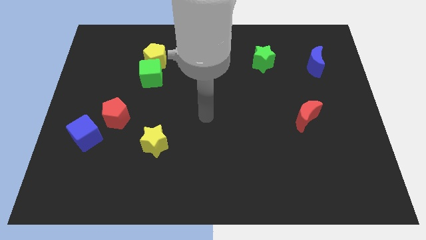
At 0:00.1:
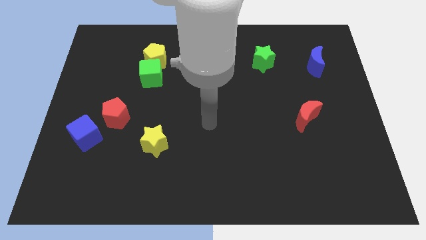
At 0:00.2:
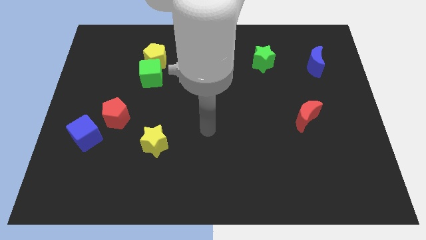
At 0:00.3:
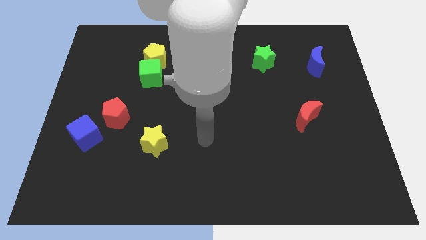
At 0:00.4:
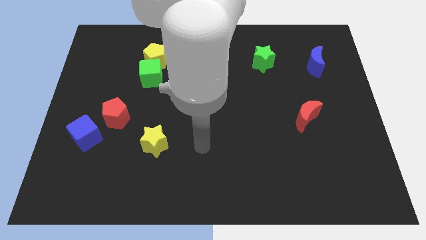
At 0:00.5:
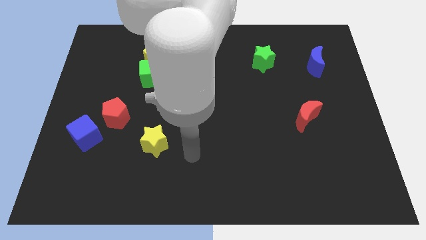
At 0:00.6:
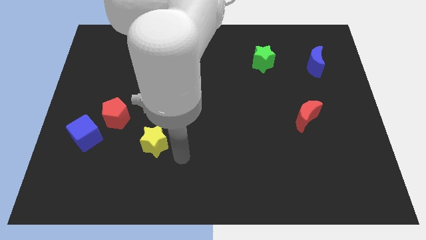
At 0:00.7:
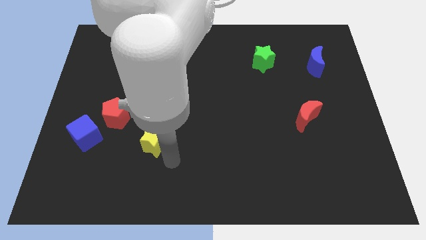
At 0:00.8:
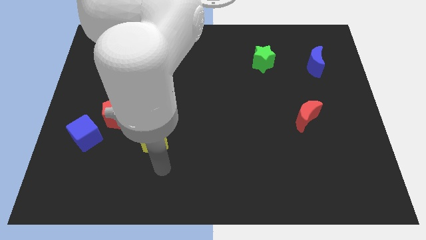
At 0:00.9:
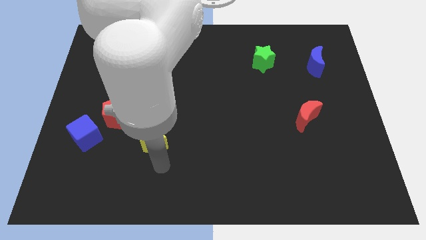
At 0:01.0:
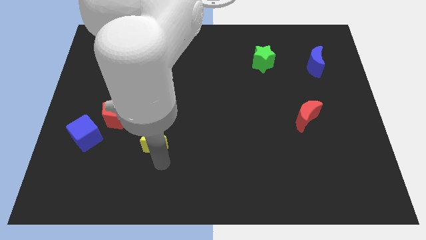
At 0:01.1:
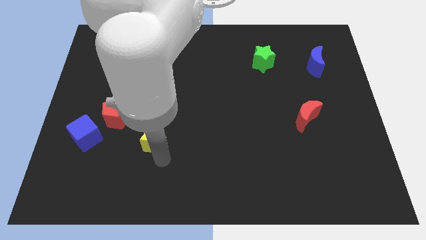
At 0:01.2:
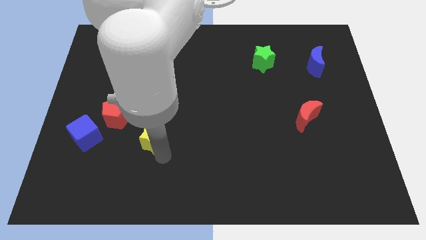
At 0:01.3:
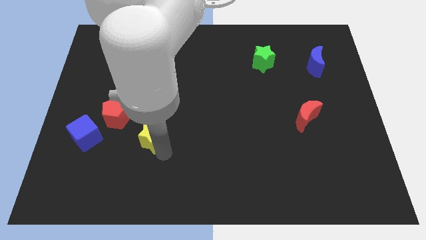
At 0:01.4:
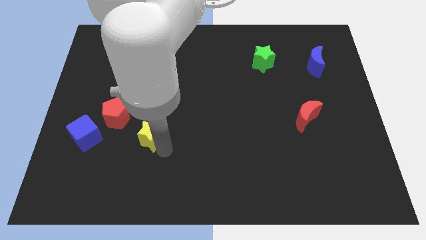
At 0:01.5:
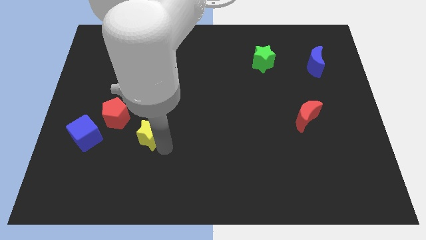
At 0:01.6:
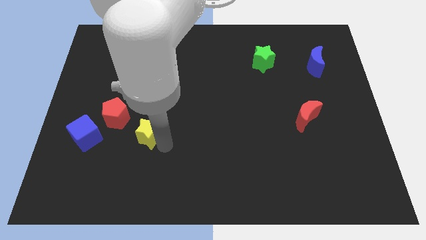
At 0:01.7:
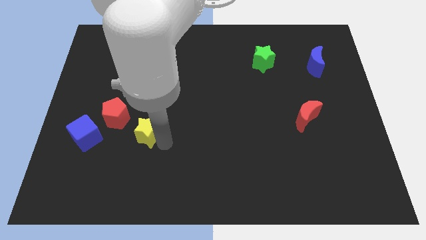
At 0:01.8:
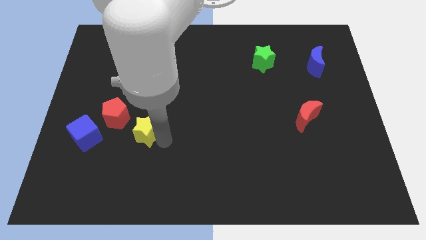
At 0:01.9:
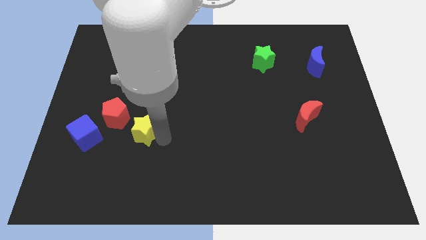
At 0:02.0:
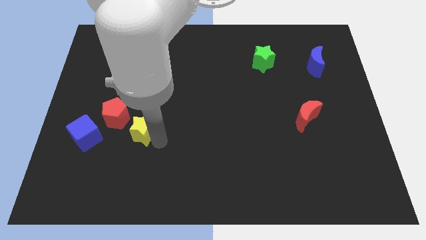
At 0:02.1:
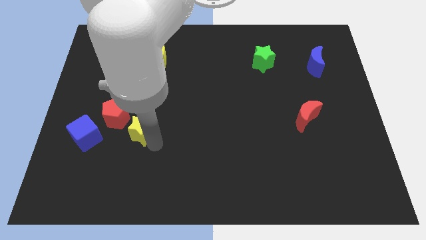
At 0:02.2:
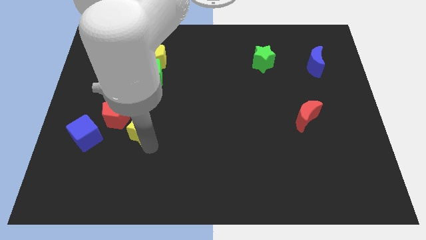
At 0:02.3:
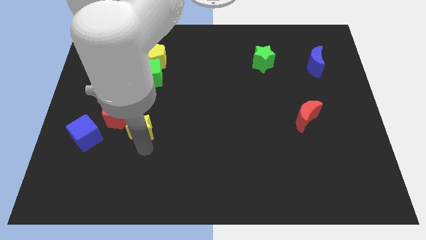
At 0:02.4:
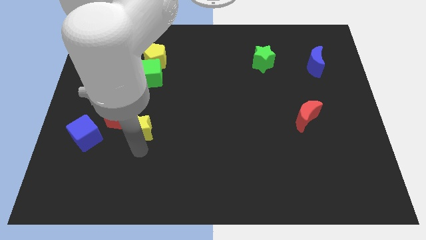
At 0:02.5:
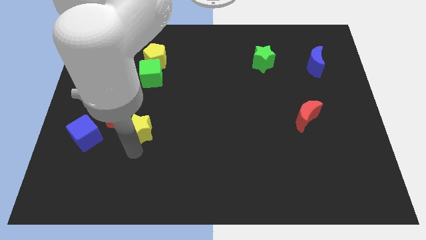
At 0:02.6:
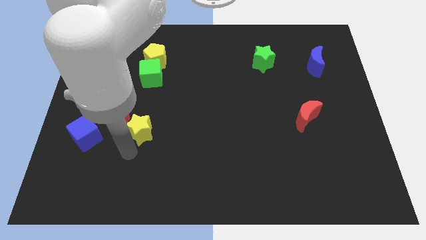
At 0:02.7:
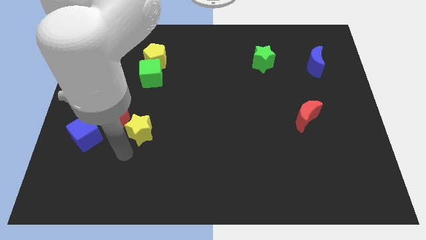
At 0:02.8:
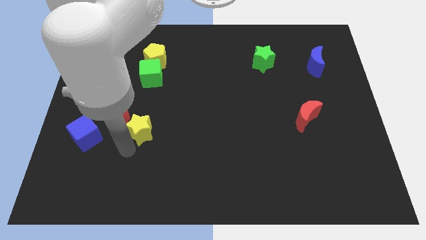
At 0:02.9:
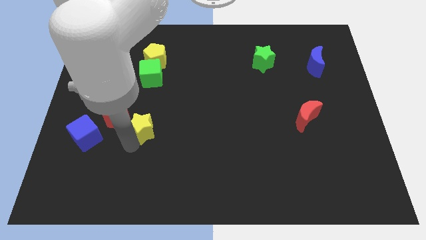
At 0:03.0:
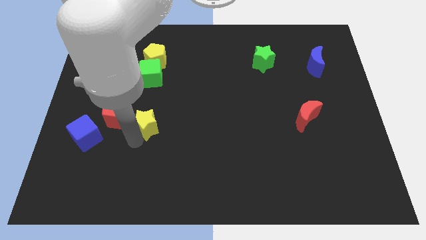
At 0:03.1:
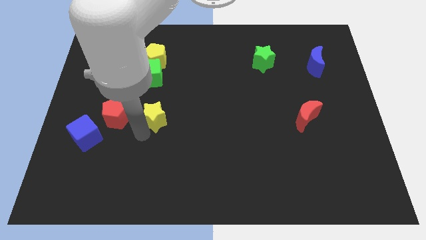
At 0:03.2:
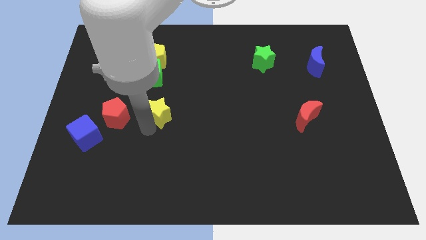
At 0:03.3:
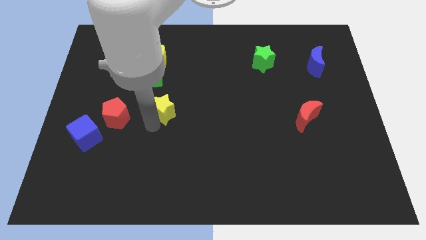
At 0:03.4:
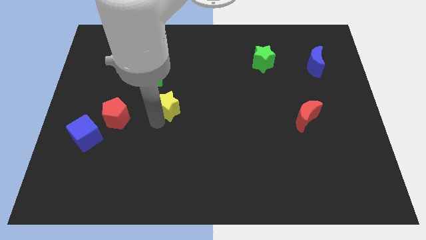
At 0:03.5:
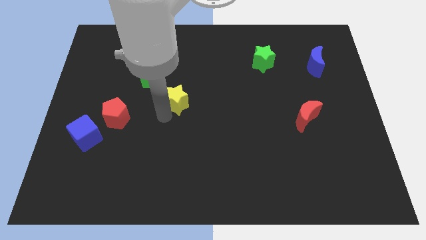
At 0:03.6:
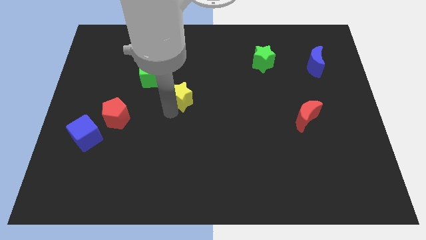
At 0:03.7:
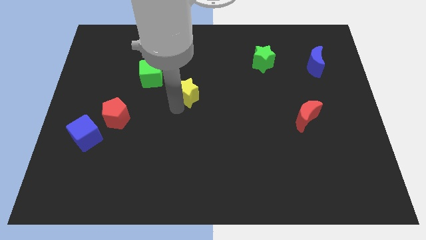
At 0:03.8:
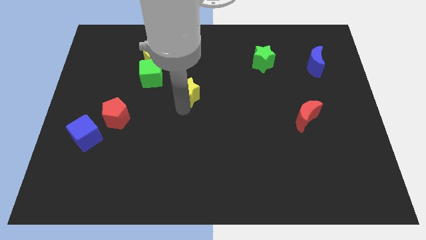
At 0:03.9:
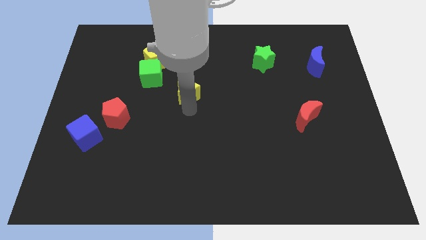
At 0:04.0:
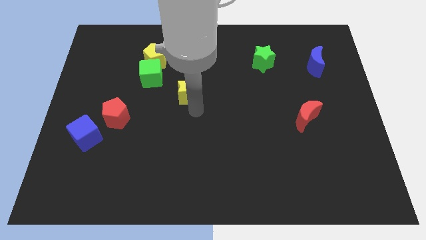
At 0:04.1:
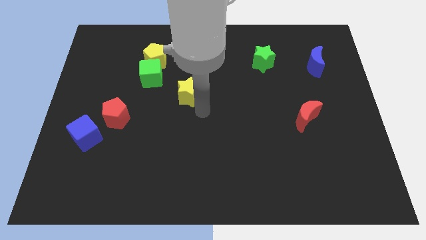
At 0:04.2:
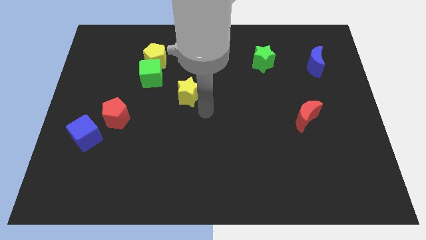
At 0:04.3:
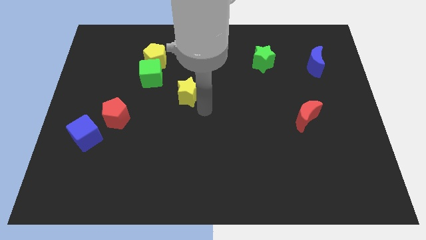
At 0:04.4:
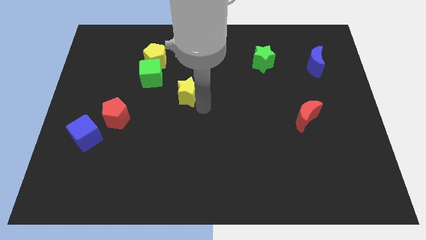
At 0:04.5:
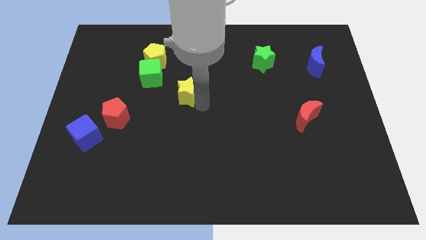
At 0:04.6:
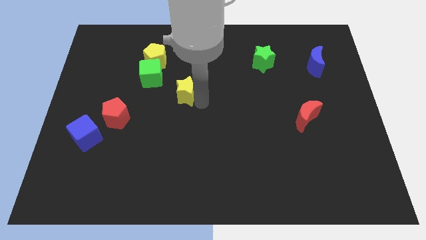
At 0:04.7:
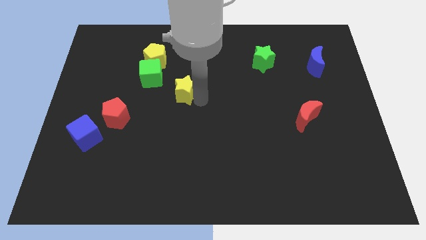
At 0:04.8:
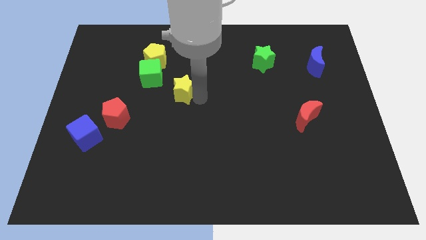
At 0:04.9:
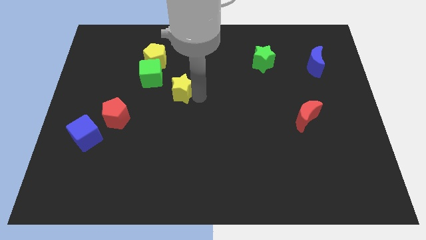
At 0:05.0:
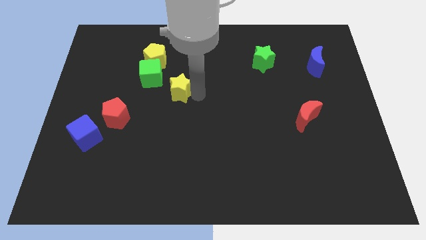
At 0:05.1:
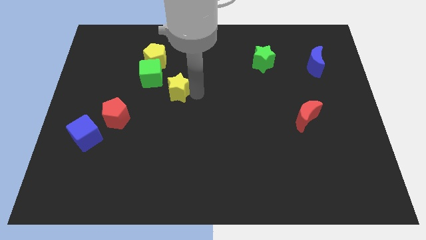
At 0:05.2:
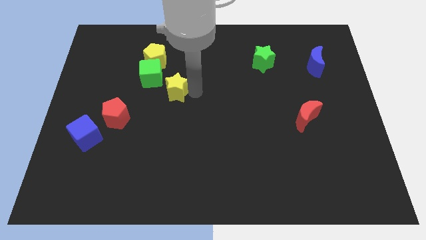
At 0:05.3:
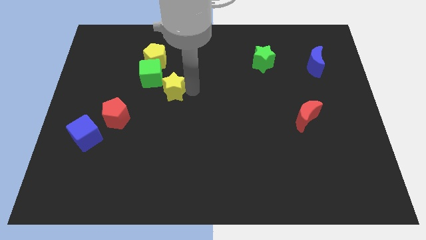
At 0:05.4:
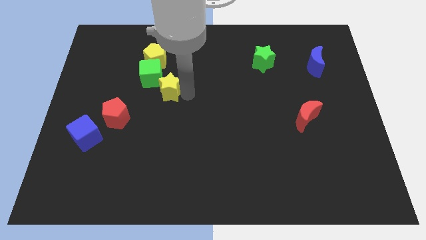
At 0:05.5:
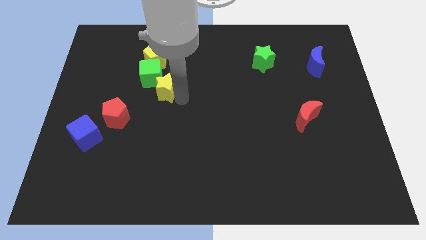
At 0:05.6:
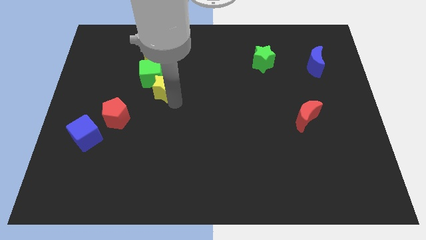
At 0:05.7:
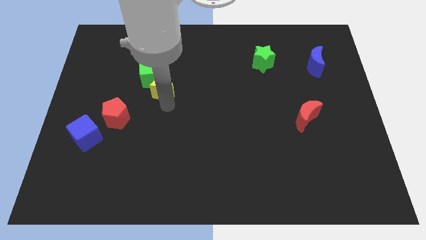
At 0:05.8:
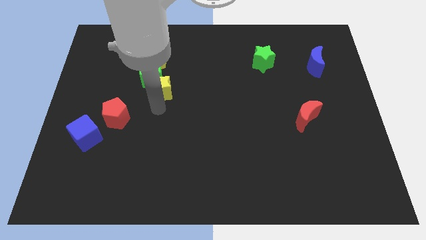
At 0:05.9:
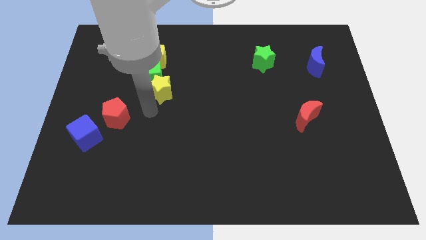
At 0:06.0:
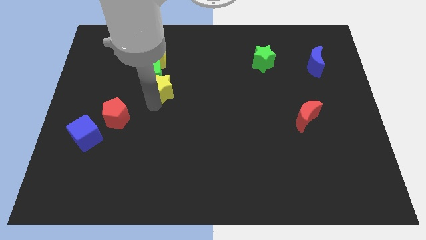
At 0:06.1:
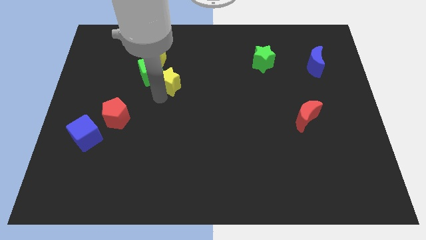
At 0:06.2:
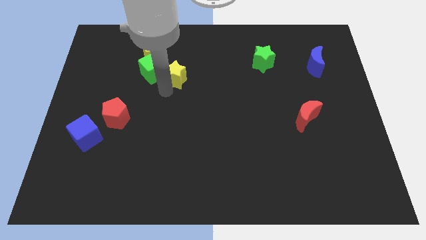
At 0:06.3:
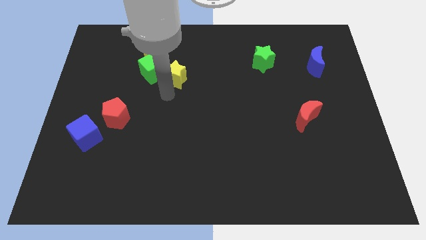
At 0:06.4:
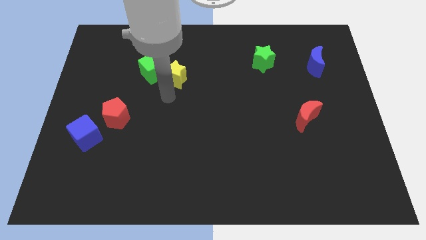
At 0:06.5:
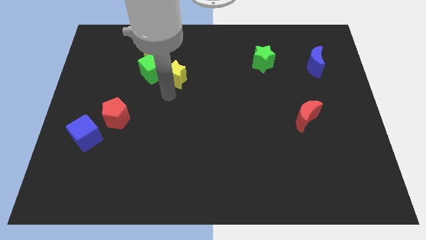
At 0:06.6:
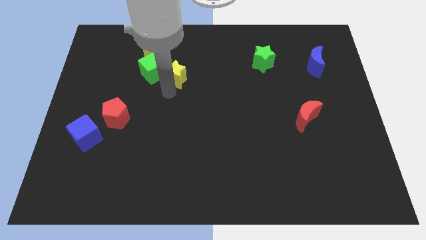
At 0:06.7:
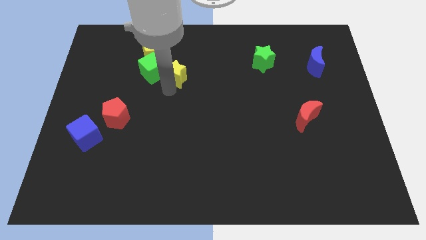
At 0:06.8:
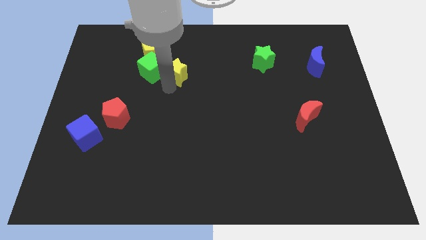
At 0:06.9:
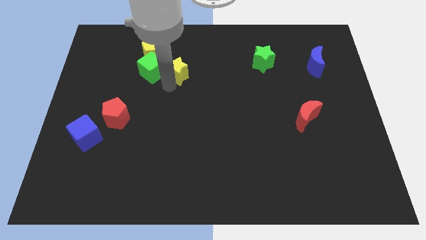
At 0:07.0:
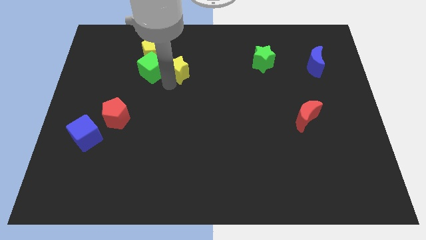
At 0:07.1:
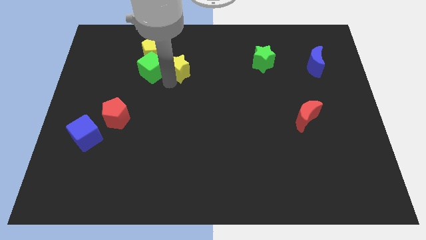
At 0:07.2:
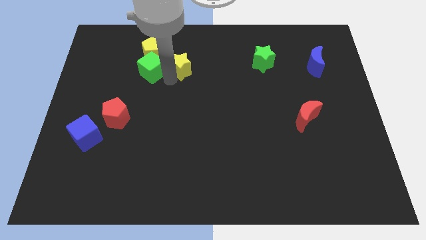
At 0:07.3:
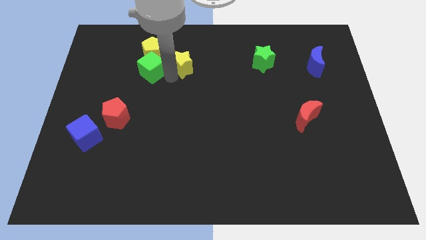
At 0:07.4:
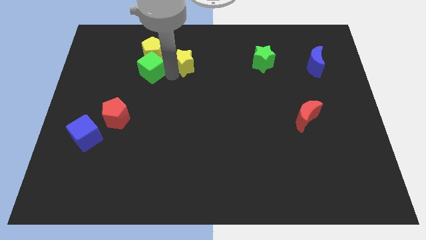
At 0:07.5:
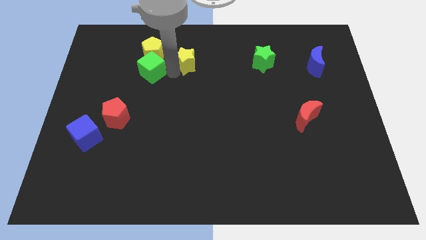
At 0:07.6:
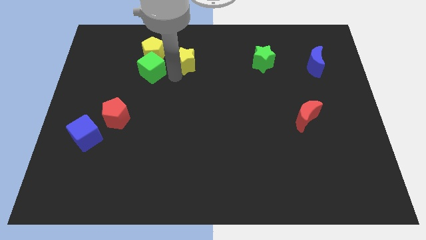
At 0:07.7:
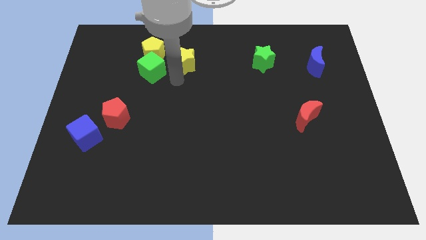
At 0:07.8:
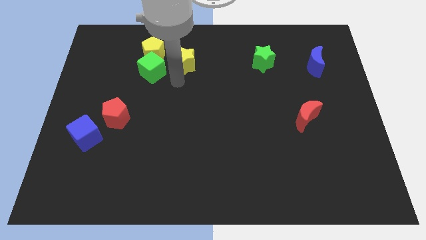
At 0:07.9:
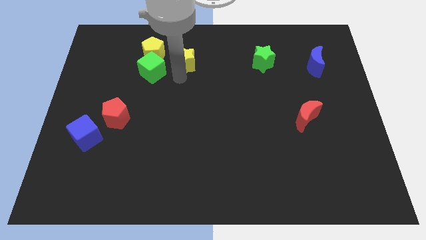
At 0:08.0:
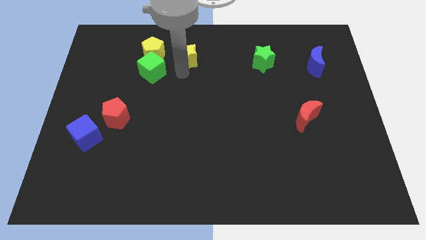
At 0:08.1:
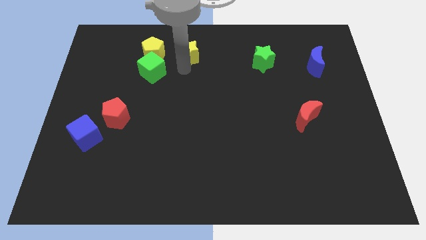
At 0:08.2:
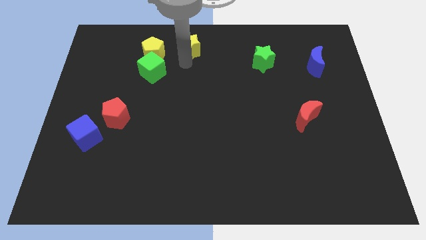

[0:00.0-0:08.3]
move the yellow star to the towards your base
